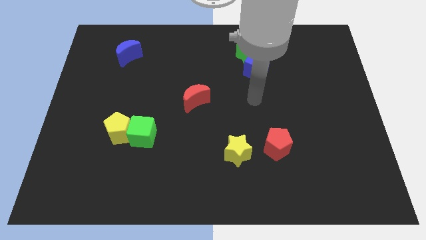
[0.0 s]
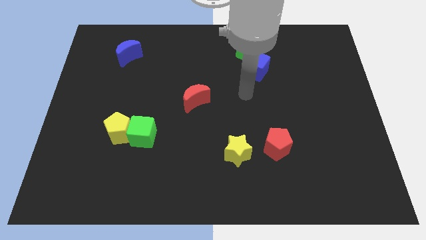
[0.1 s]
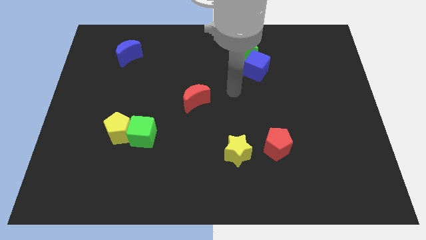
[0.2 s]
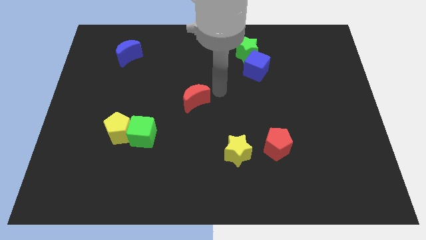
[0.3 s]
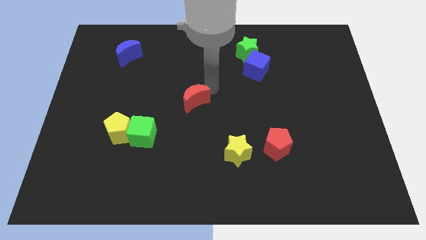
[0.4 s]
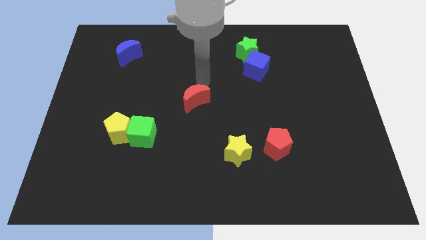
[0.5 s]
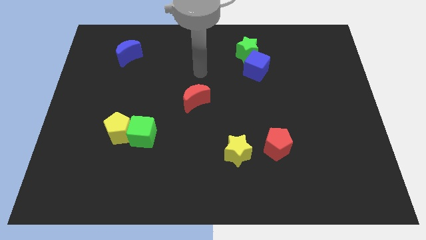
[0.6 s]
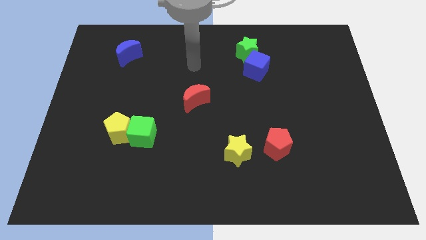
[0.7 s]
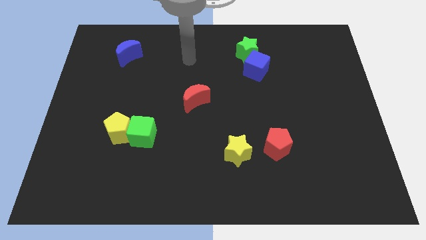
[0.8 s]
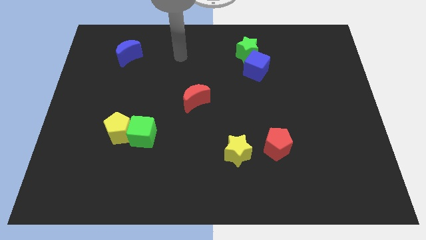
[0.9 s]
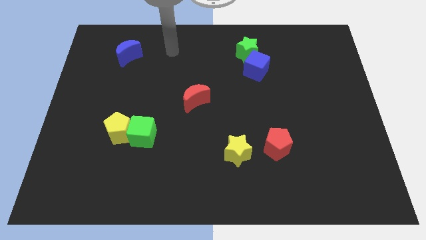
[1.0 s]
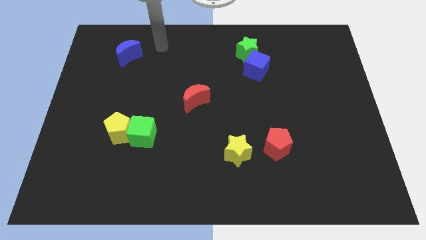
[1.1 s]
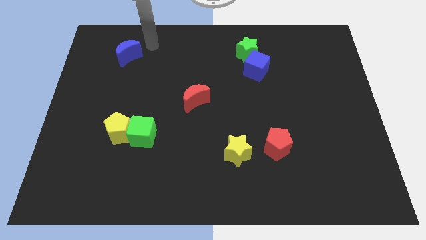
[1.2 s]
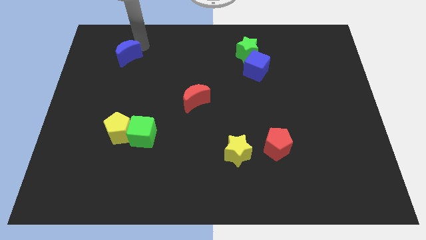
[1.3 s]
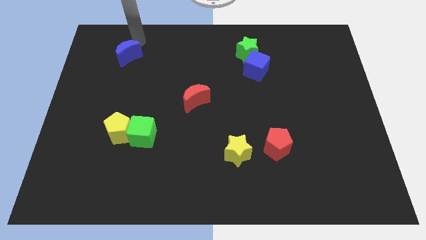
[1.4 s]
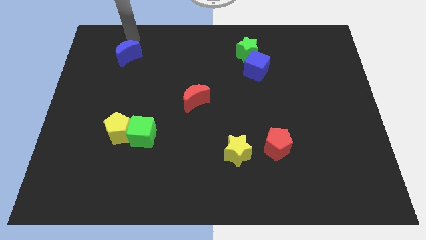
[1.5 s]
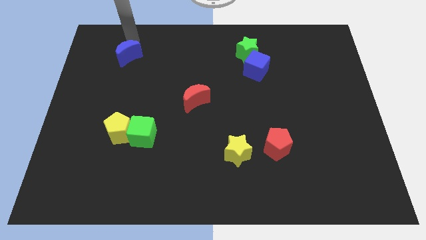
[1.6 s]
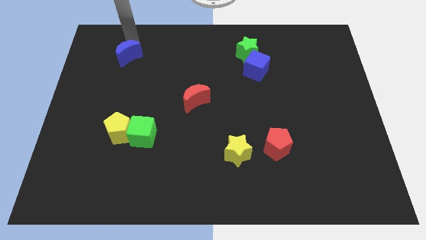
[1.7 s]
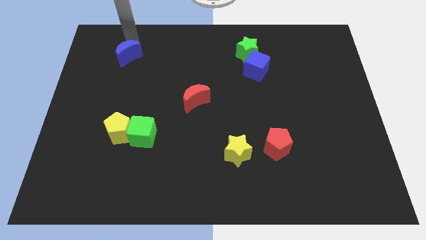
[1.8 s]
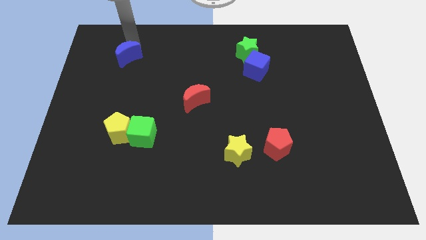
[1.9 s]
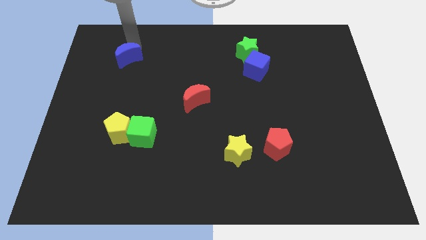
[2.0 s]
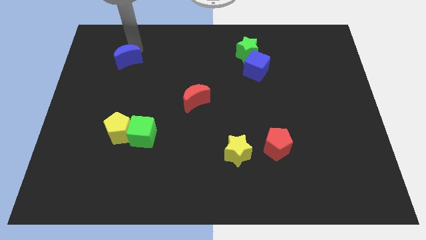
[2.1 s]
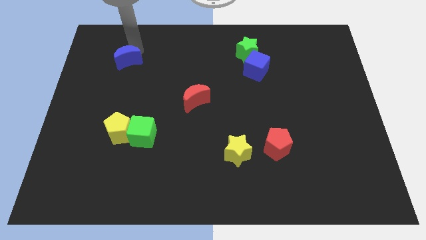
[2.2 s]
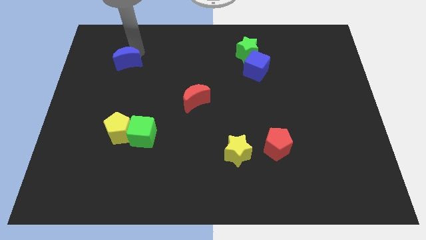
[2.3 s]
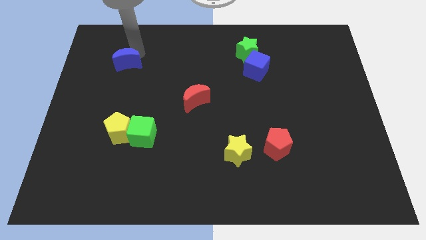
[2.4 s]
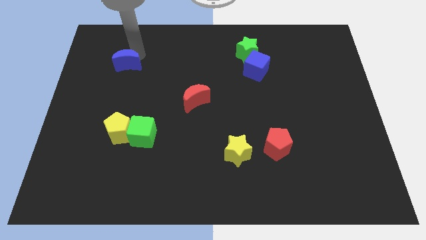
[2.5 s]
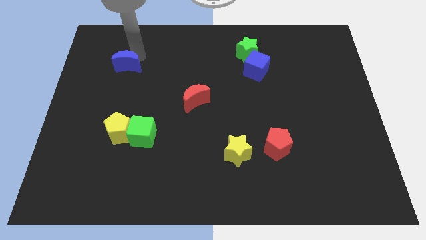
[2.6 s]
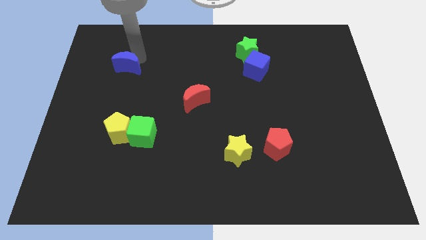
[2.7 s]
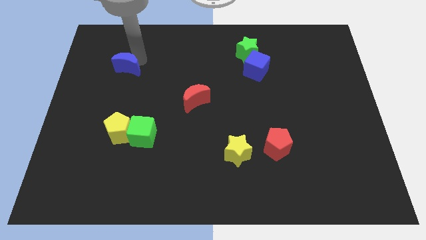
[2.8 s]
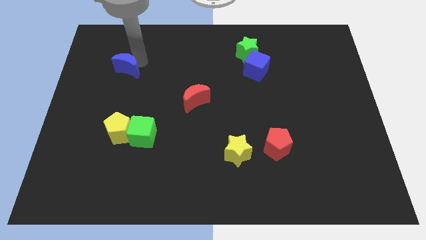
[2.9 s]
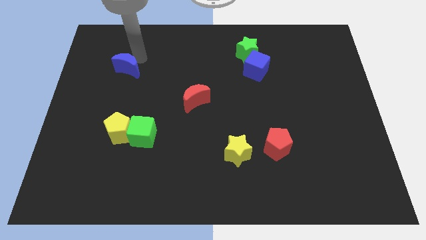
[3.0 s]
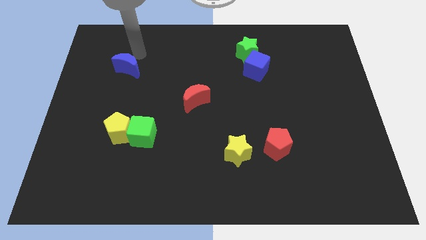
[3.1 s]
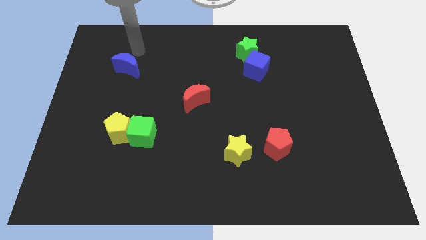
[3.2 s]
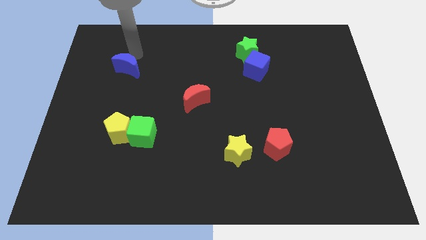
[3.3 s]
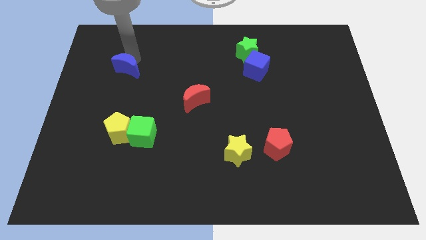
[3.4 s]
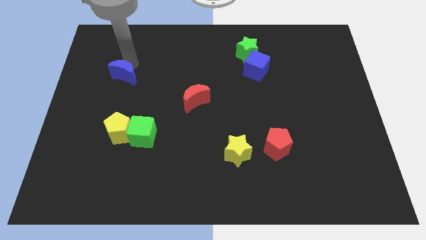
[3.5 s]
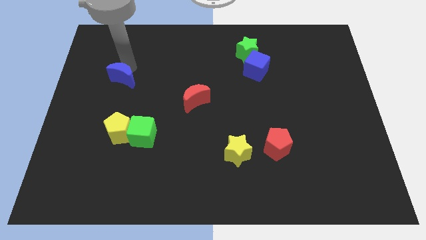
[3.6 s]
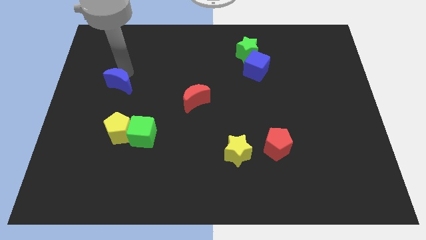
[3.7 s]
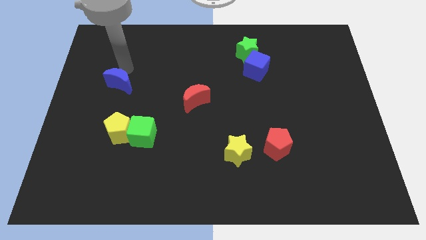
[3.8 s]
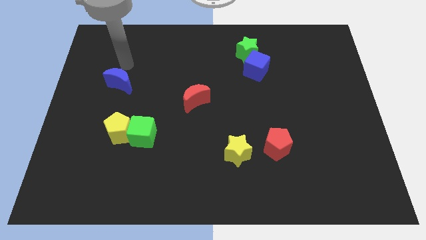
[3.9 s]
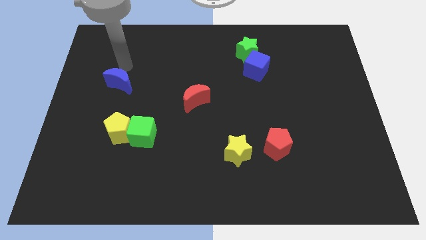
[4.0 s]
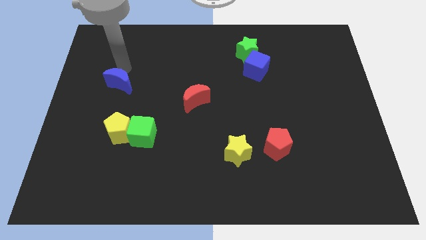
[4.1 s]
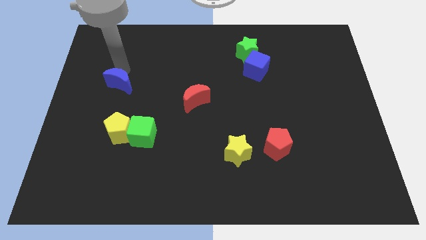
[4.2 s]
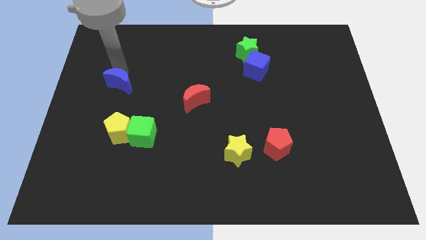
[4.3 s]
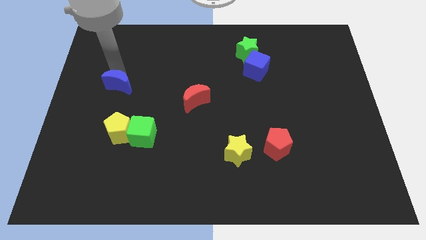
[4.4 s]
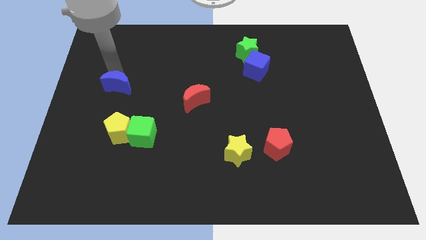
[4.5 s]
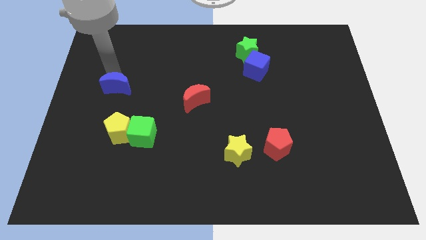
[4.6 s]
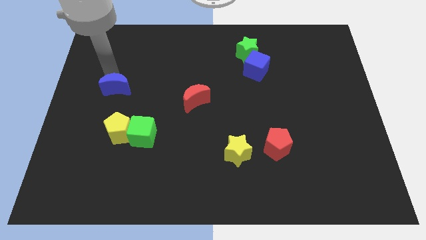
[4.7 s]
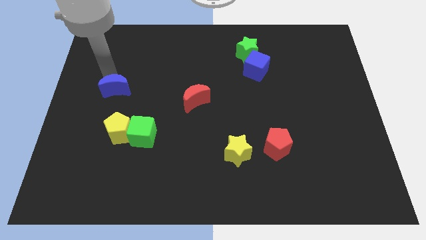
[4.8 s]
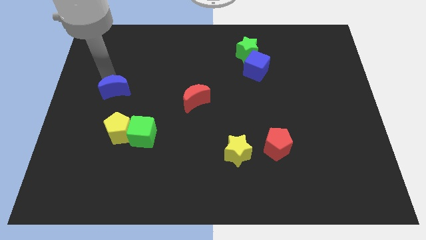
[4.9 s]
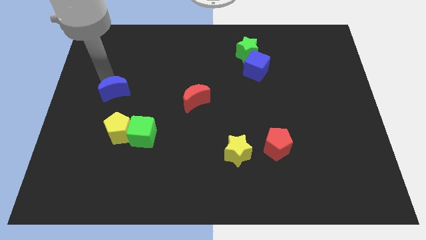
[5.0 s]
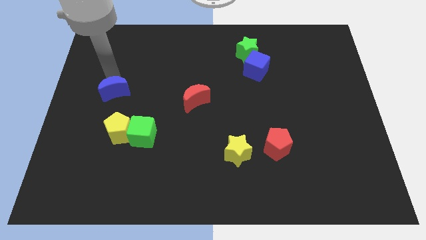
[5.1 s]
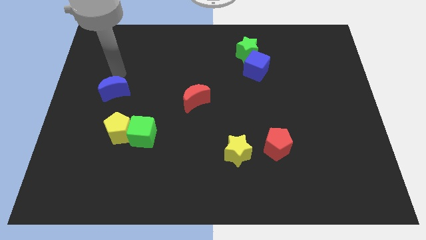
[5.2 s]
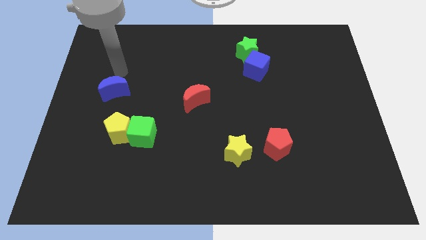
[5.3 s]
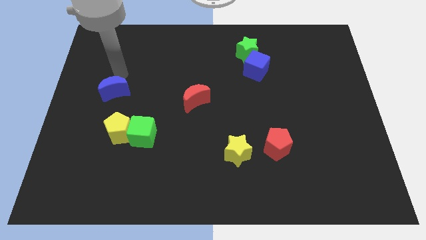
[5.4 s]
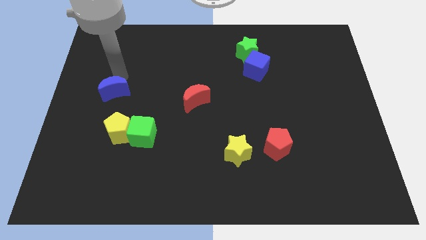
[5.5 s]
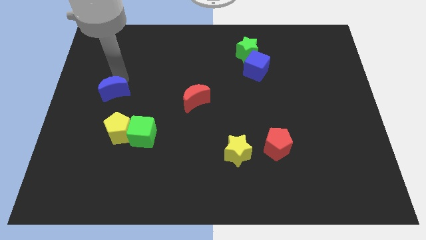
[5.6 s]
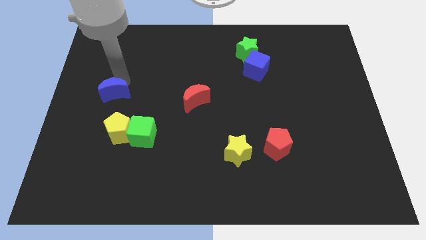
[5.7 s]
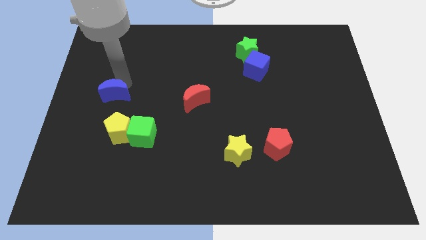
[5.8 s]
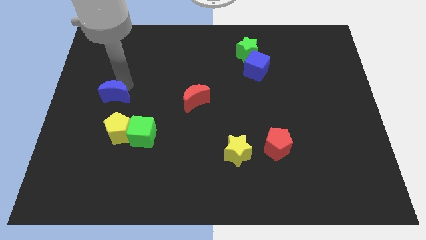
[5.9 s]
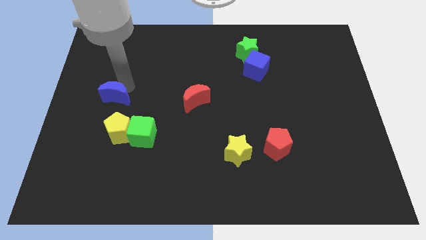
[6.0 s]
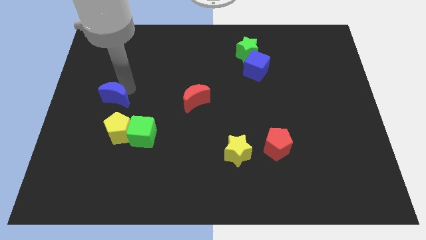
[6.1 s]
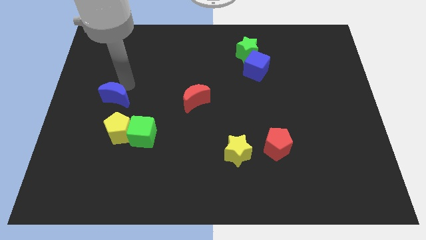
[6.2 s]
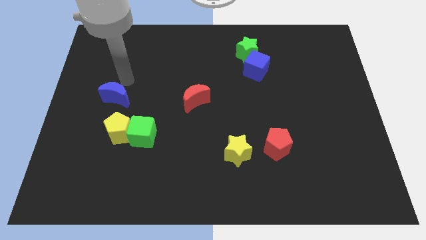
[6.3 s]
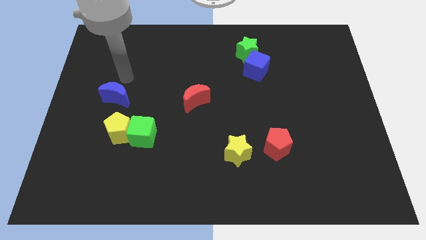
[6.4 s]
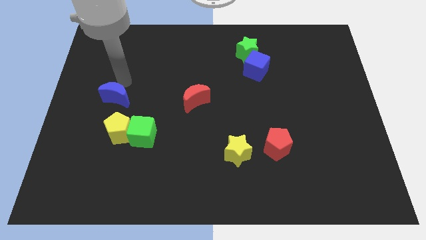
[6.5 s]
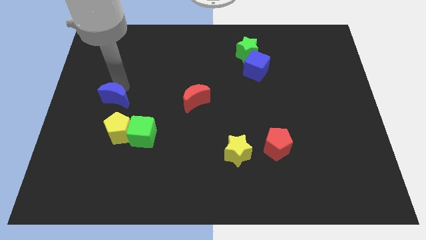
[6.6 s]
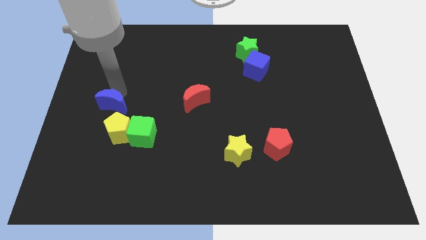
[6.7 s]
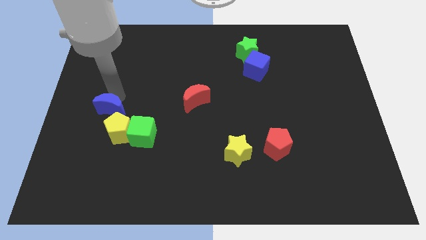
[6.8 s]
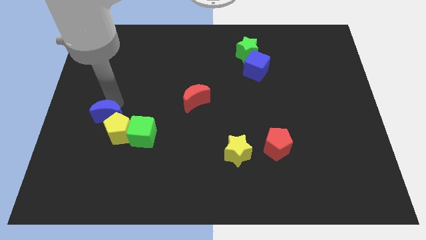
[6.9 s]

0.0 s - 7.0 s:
slide the blue moon down

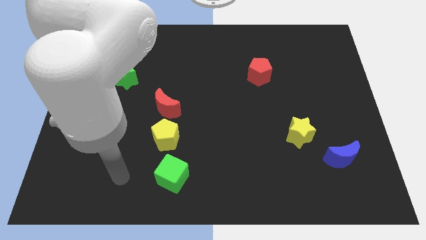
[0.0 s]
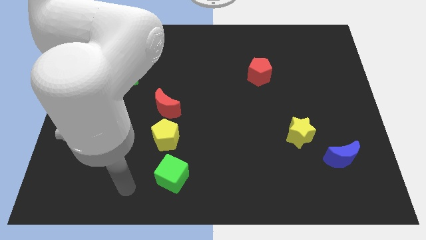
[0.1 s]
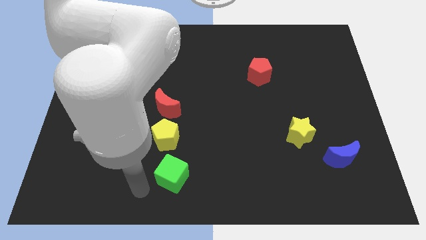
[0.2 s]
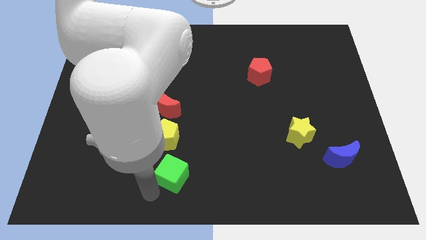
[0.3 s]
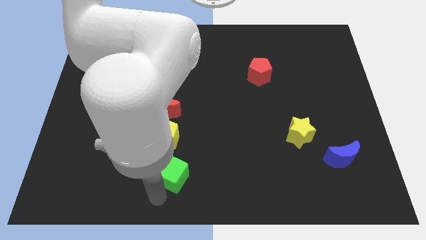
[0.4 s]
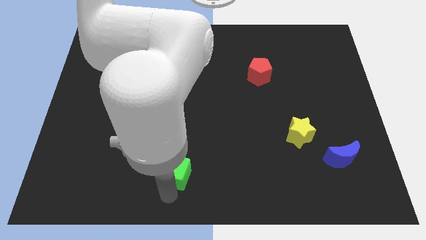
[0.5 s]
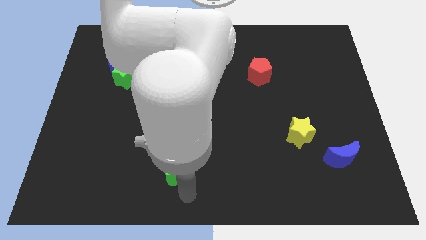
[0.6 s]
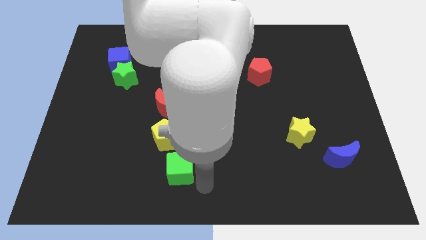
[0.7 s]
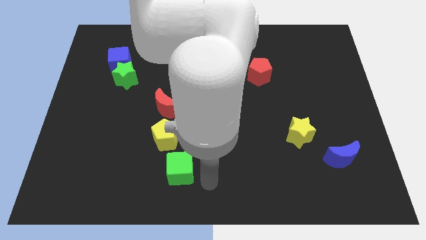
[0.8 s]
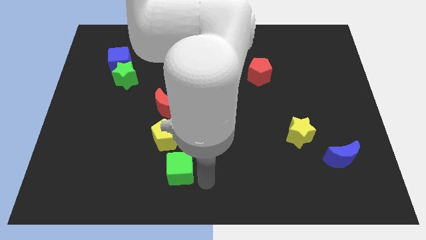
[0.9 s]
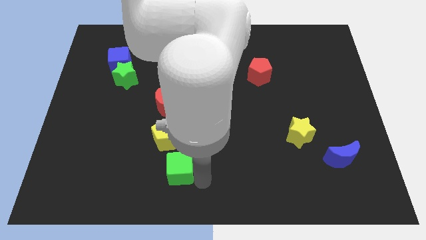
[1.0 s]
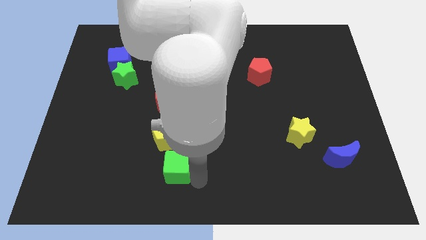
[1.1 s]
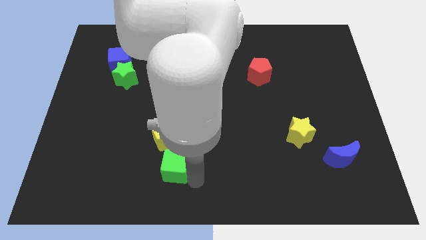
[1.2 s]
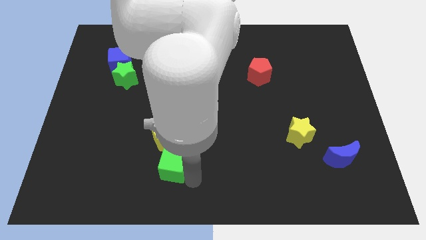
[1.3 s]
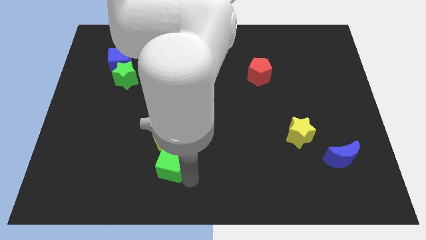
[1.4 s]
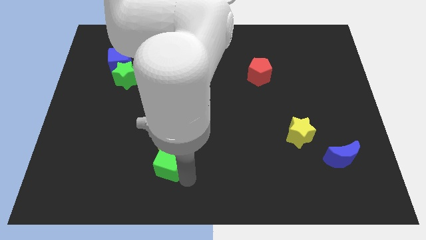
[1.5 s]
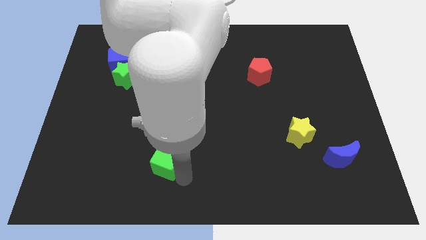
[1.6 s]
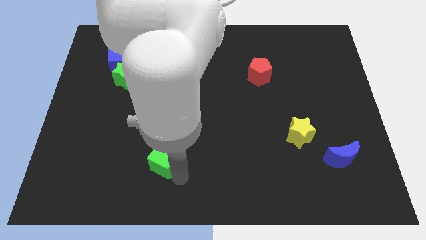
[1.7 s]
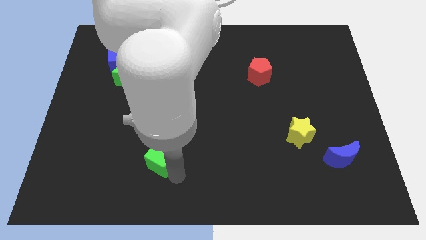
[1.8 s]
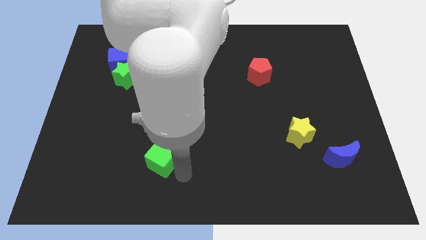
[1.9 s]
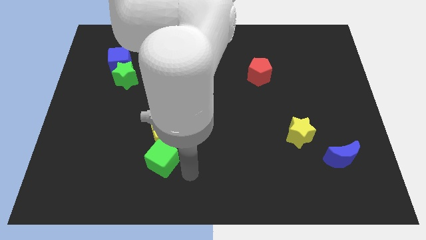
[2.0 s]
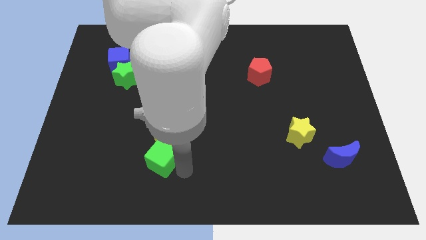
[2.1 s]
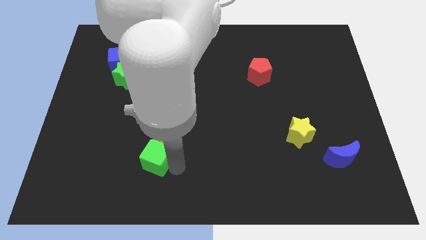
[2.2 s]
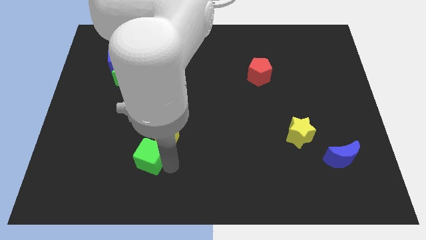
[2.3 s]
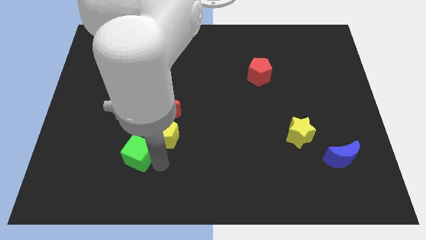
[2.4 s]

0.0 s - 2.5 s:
slightly slide the green cube diagonally upwards and left
